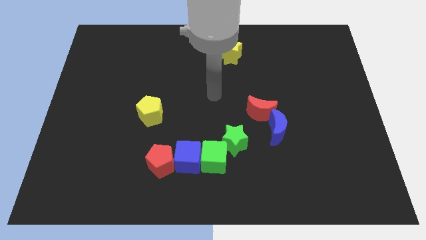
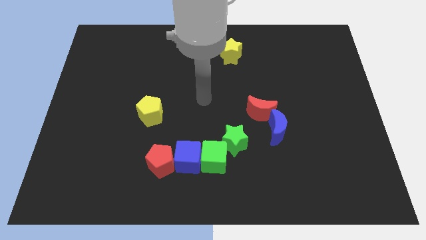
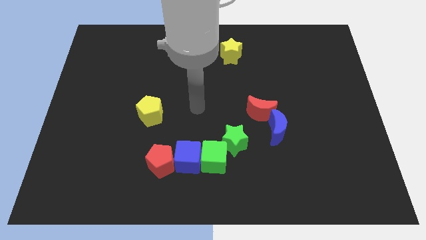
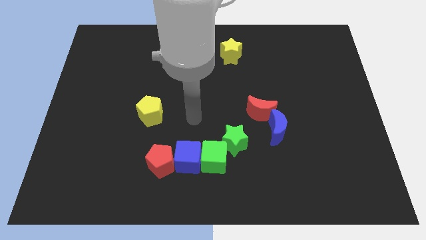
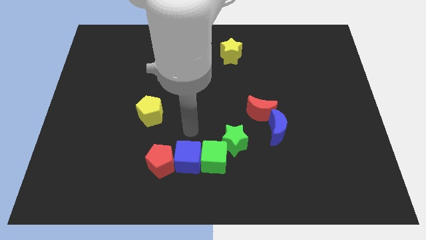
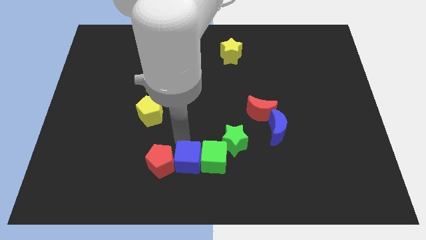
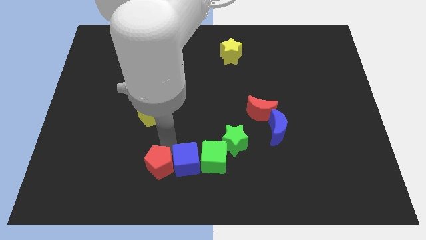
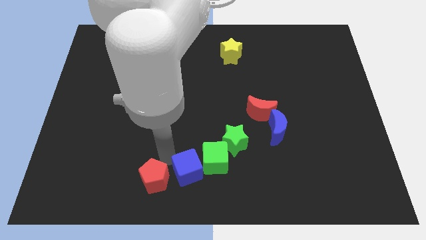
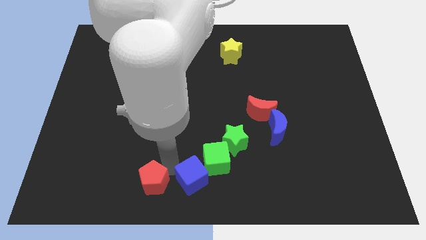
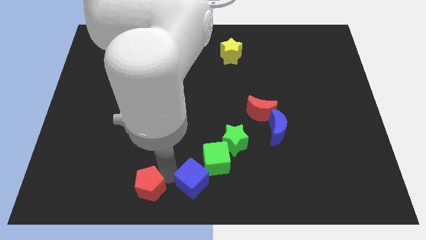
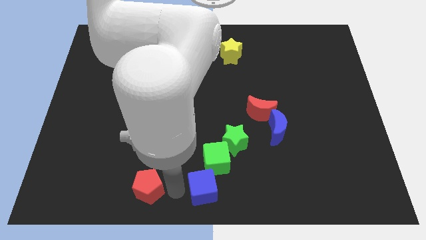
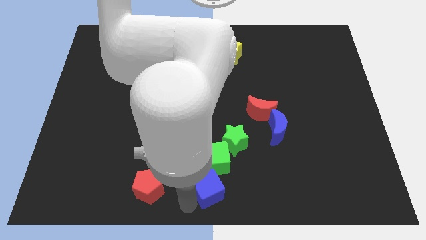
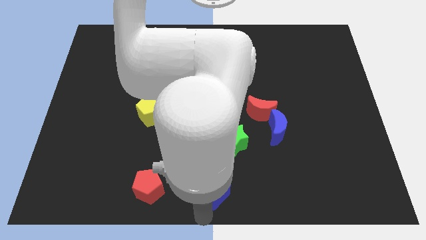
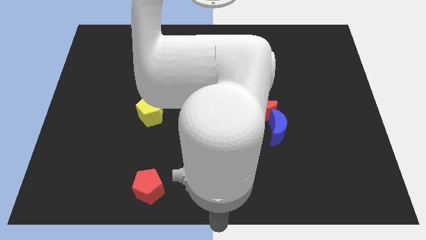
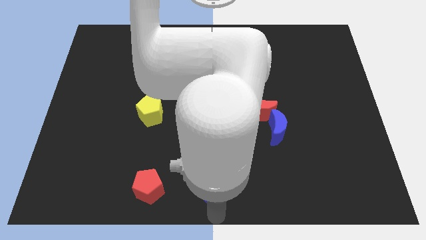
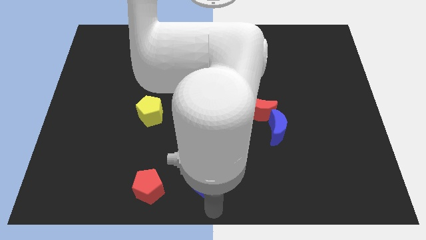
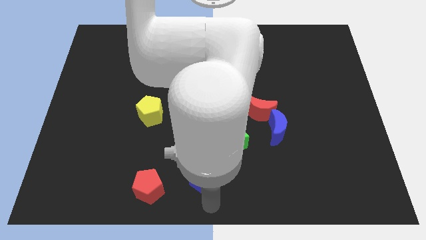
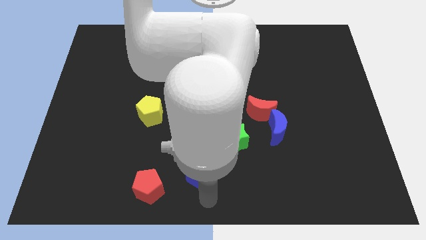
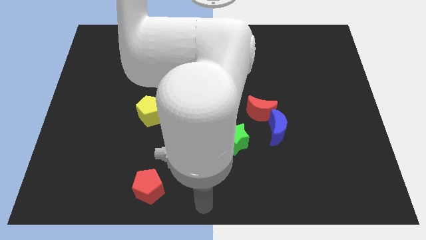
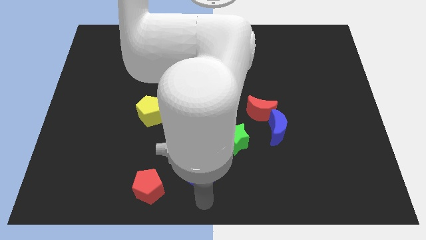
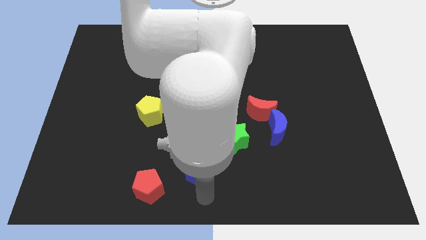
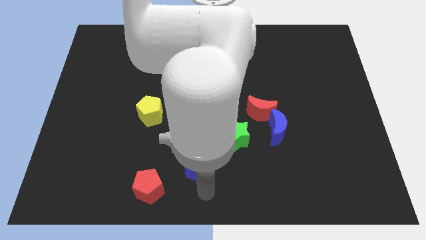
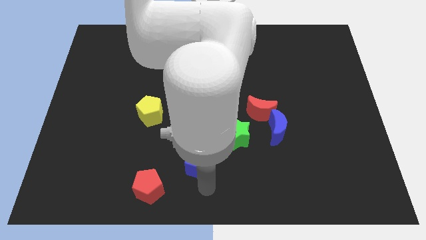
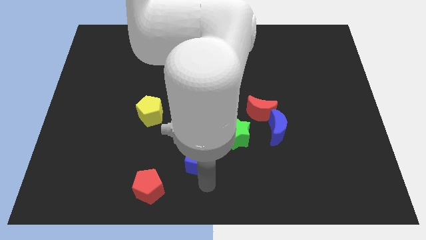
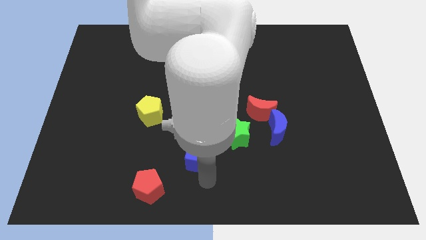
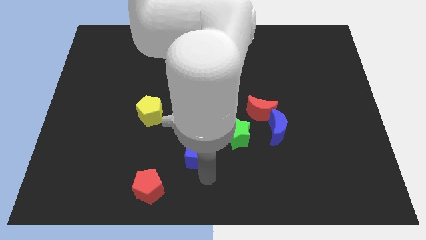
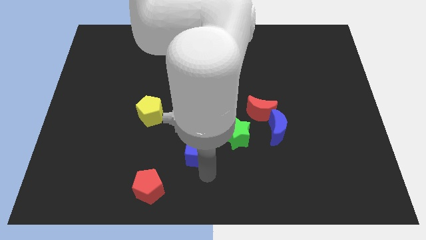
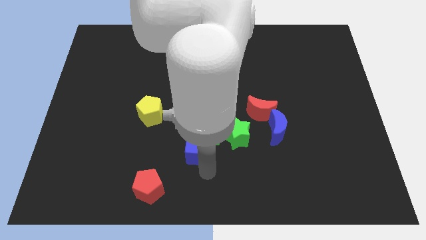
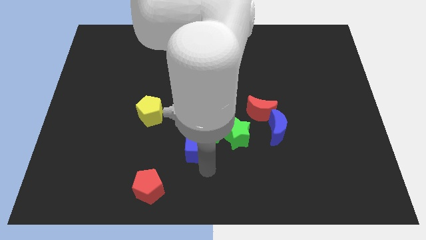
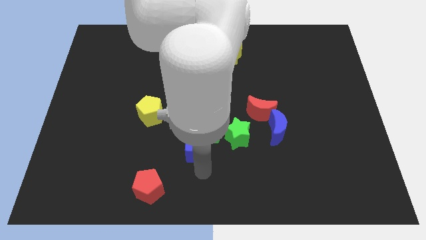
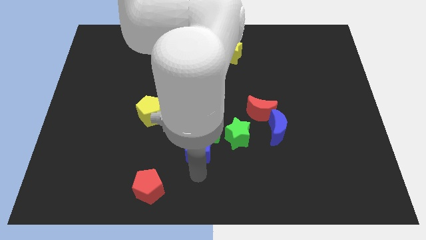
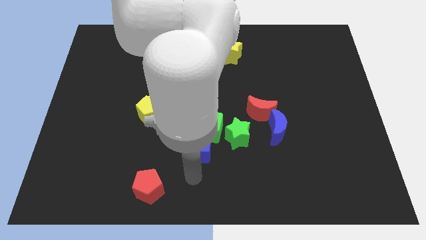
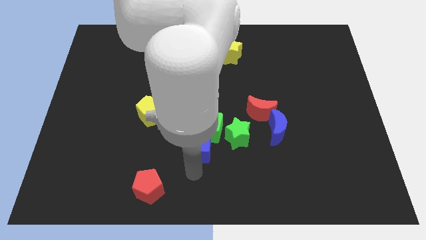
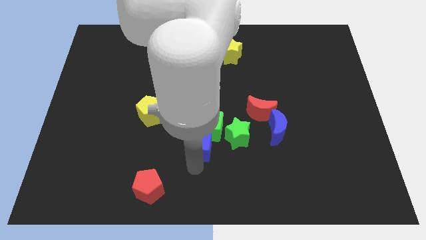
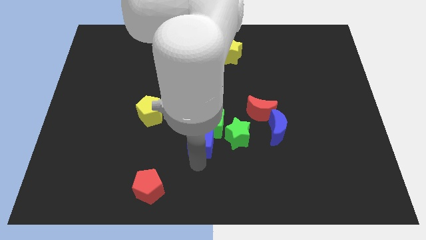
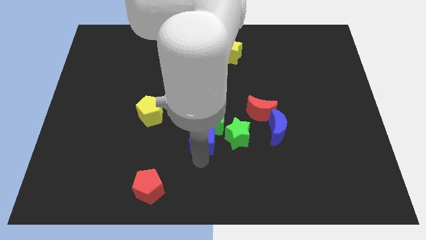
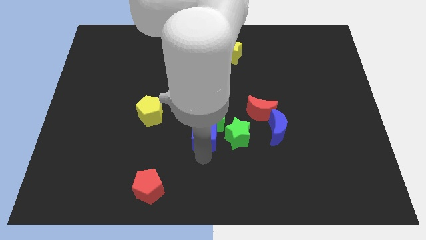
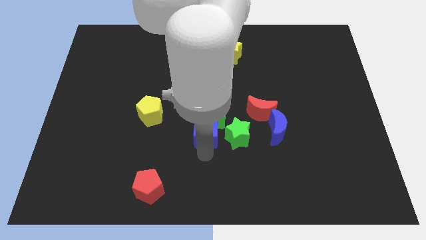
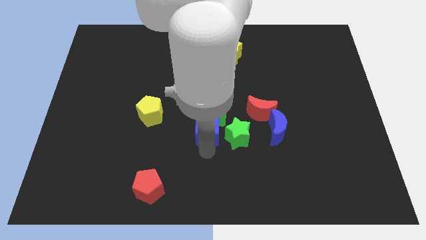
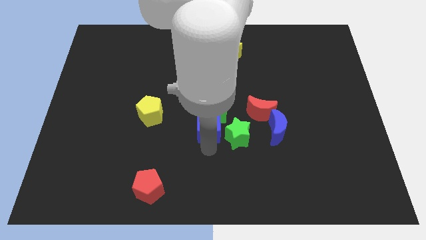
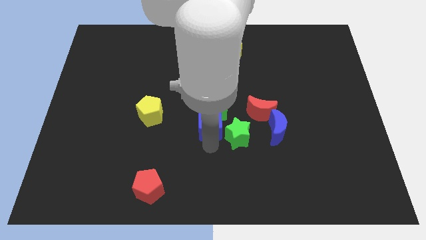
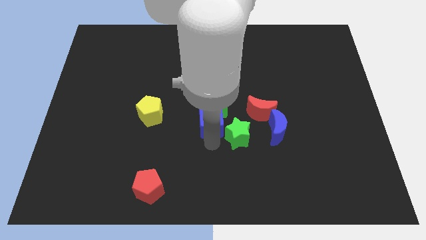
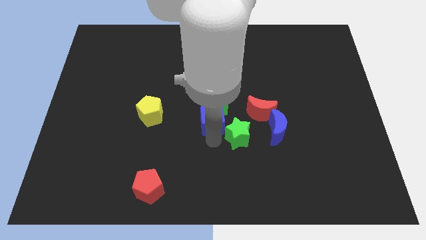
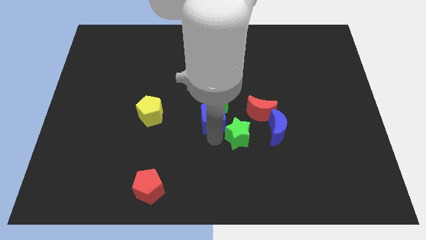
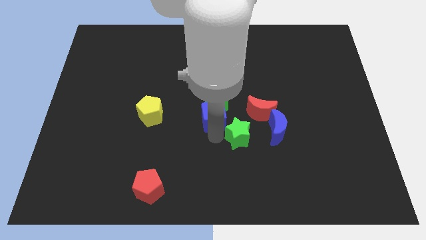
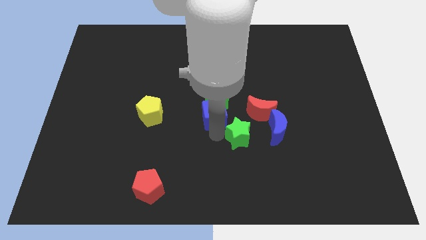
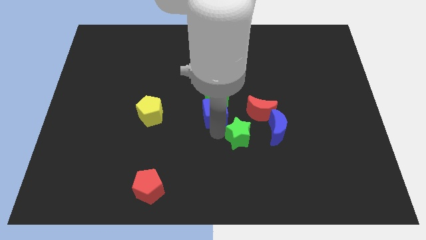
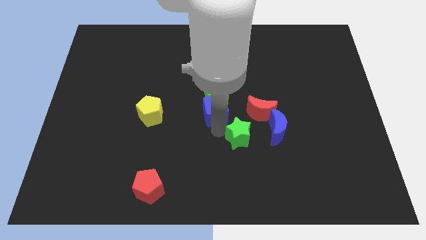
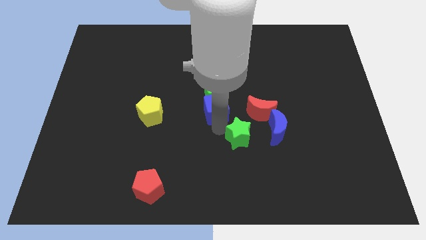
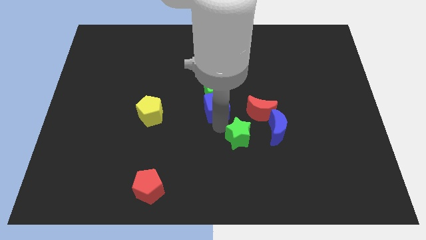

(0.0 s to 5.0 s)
separate the blue cube from the green cube and red pentagon

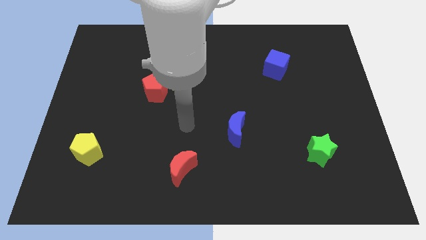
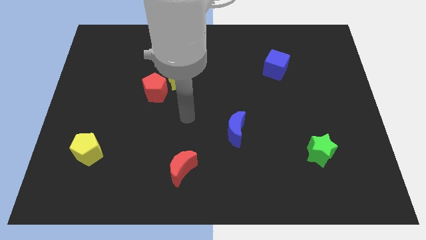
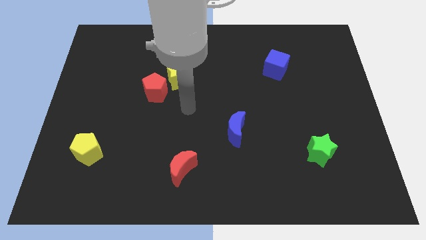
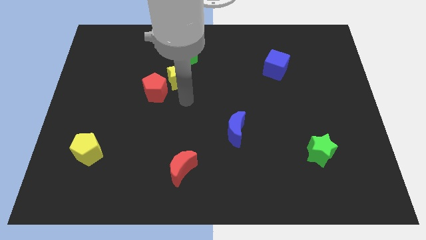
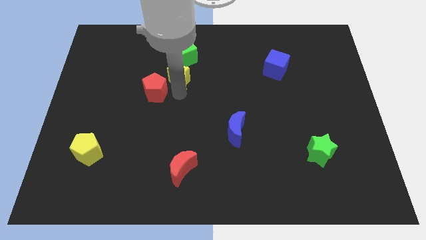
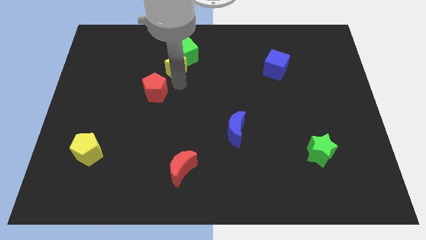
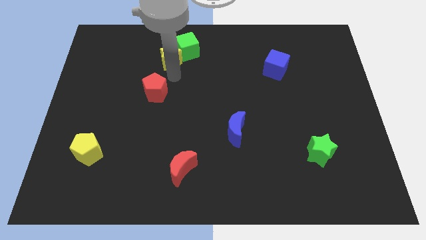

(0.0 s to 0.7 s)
separate the red pentagon from the yellow star

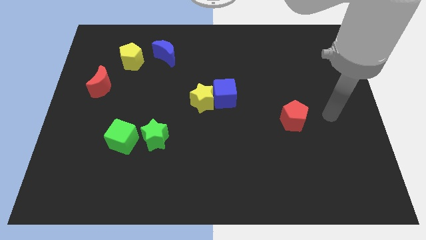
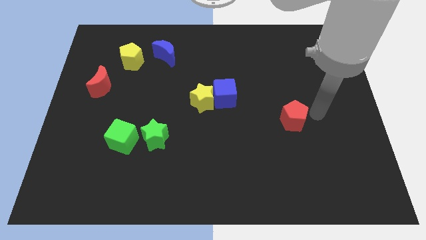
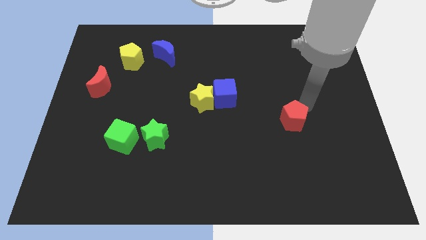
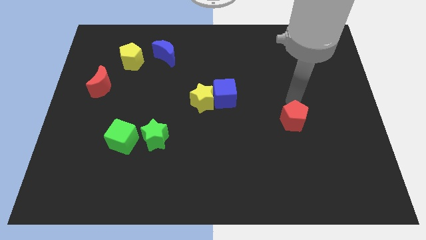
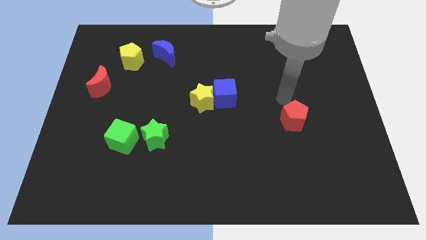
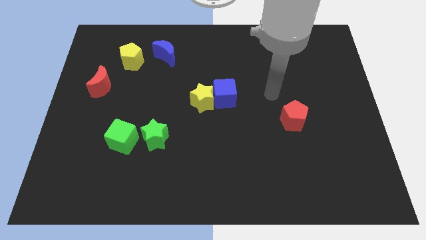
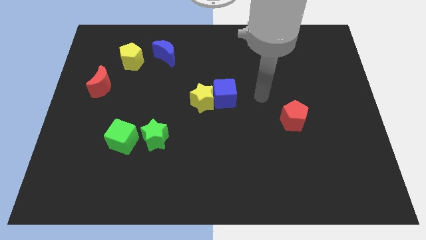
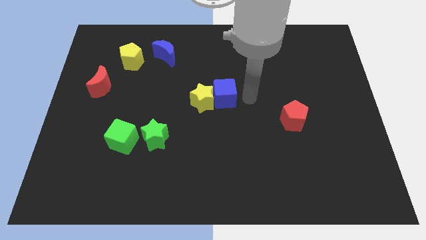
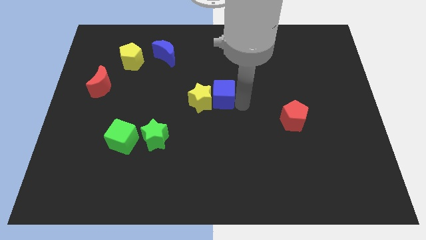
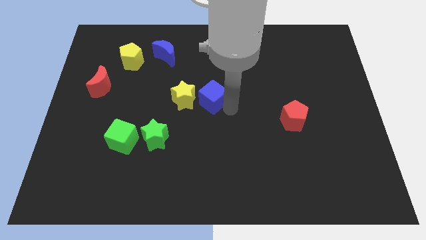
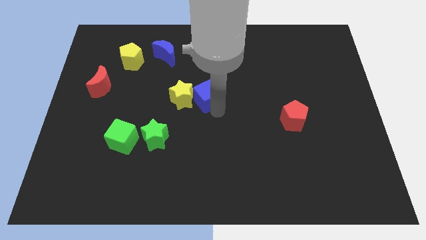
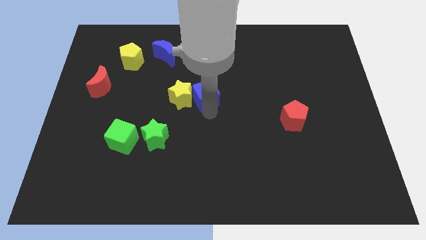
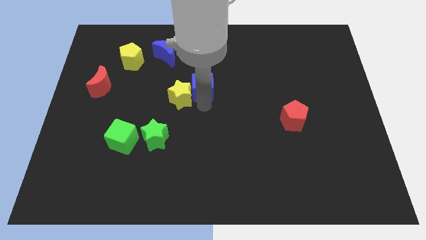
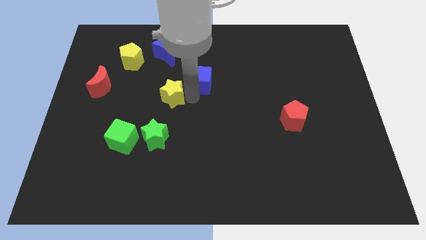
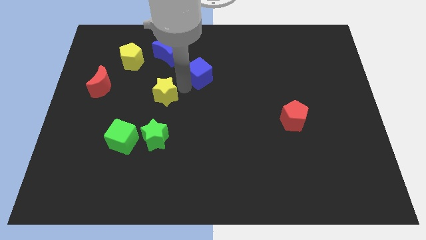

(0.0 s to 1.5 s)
move the blue cube away from the yellow star

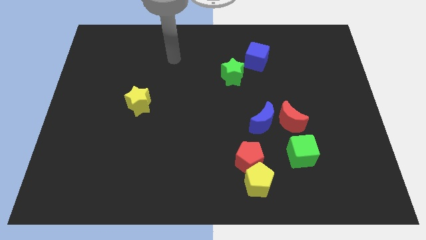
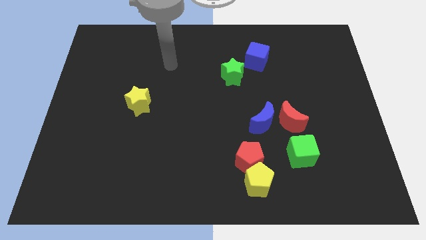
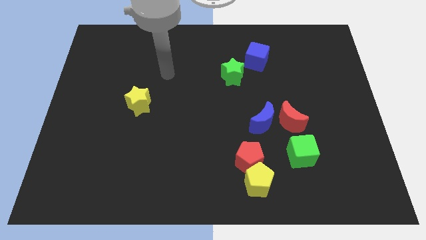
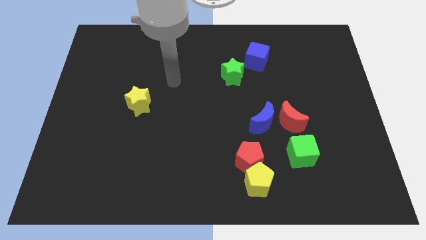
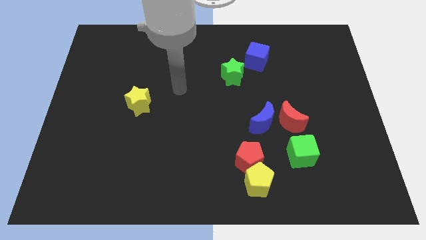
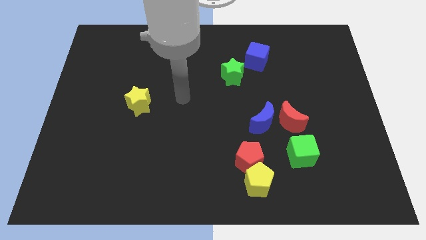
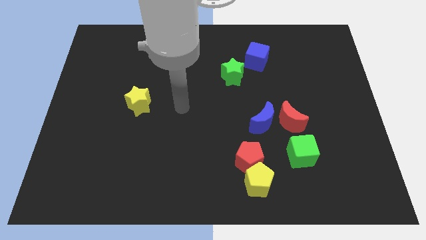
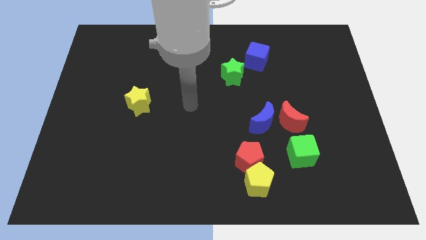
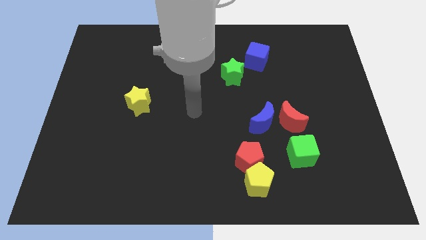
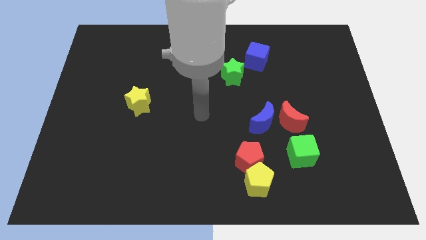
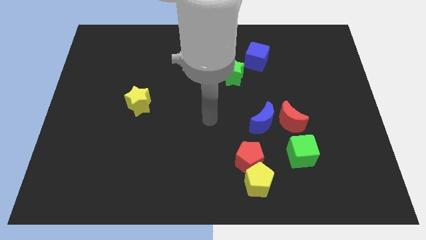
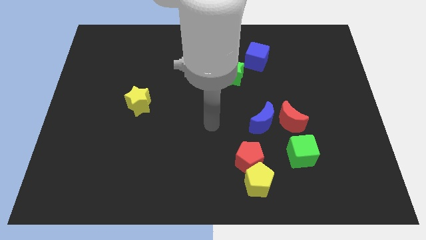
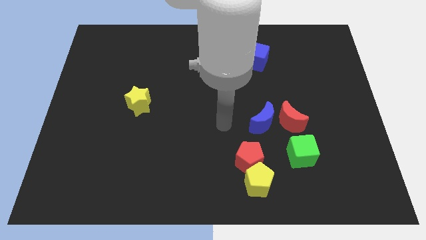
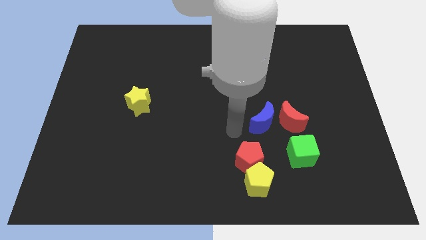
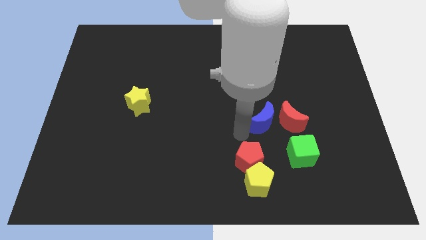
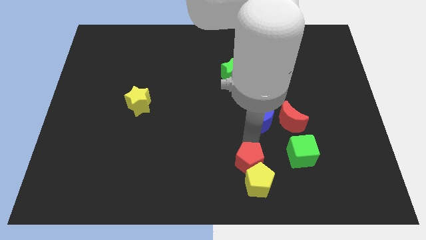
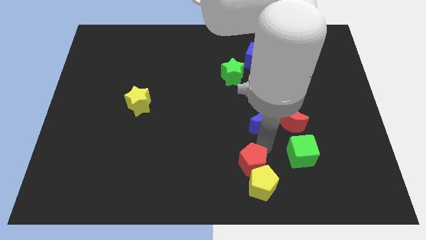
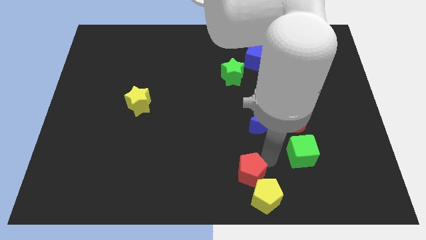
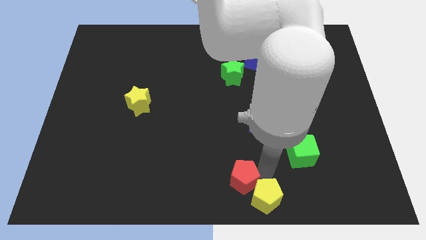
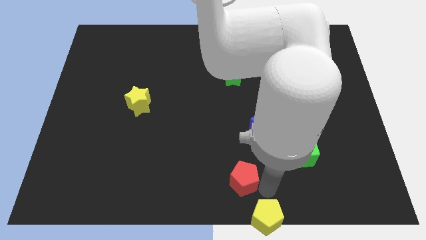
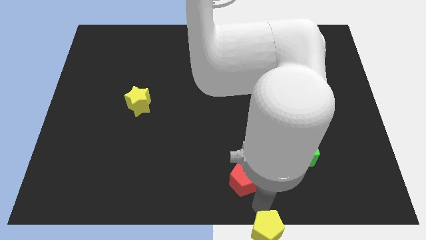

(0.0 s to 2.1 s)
pull the red pentagon apart from the yellow pentagon
